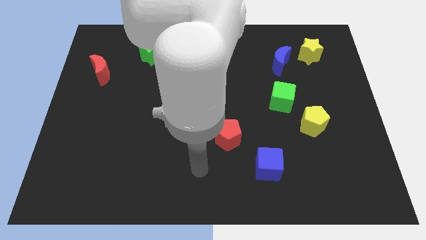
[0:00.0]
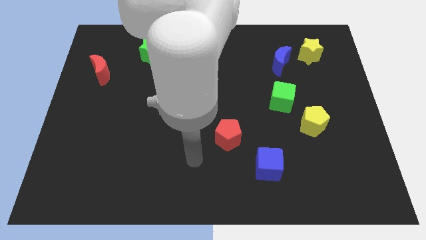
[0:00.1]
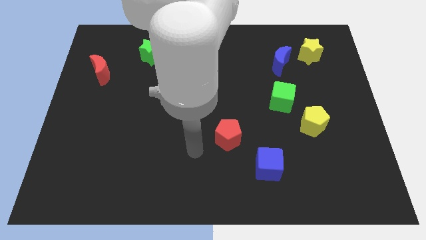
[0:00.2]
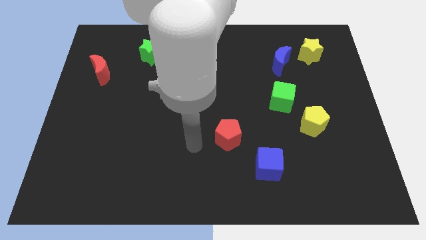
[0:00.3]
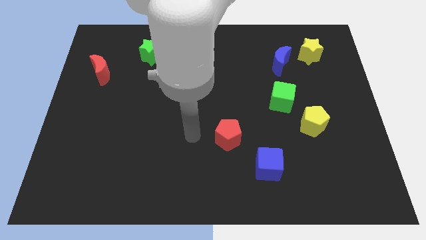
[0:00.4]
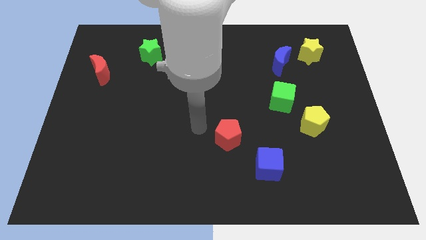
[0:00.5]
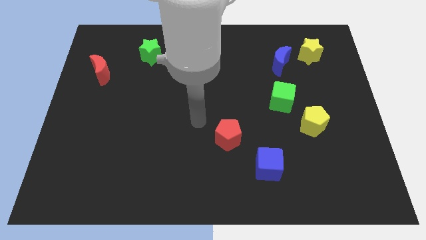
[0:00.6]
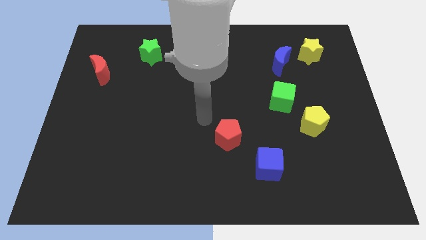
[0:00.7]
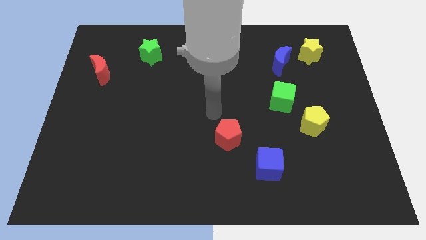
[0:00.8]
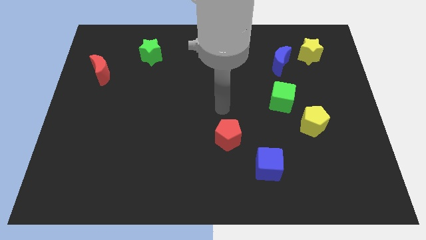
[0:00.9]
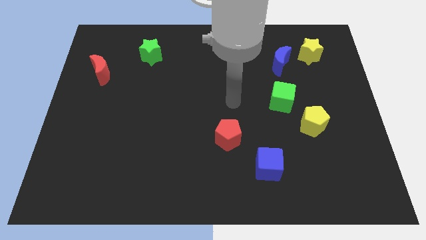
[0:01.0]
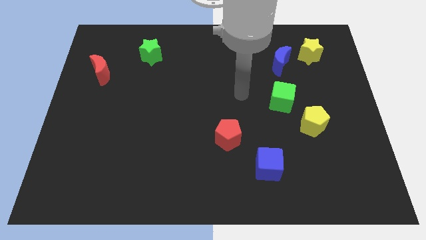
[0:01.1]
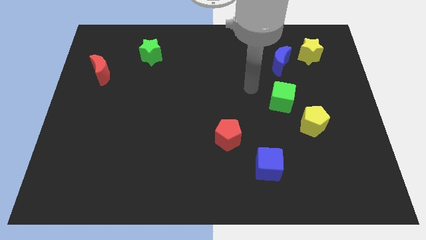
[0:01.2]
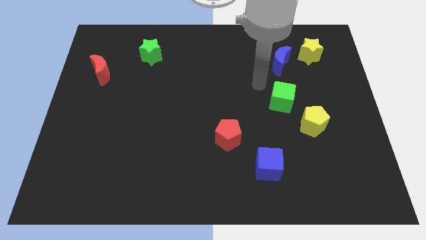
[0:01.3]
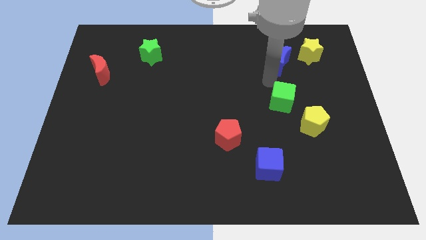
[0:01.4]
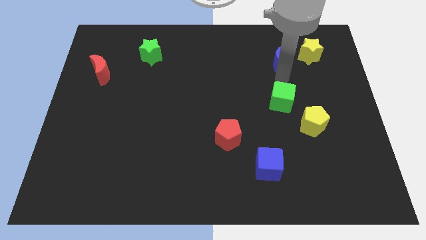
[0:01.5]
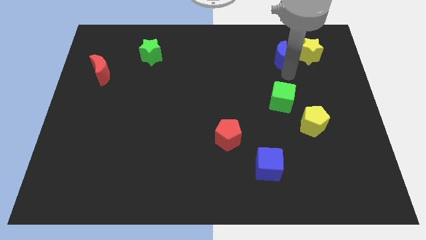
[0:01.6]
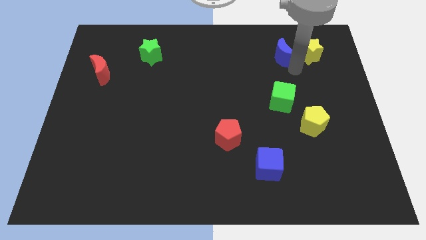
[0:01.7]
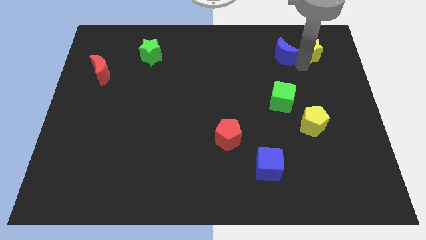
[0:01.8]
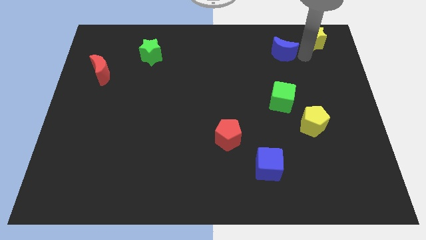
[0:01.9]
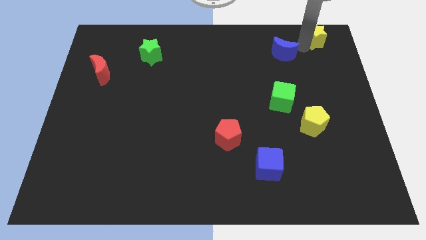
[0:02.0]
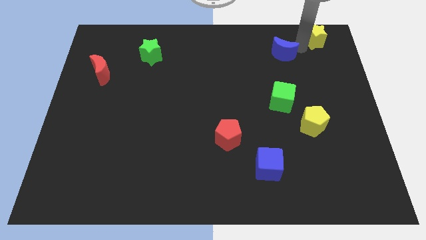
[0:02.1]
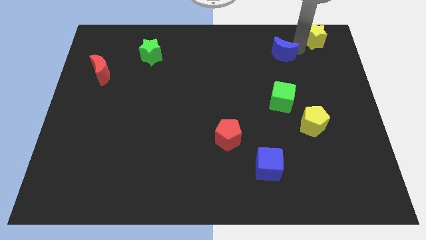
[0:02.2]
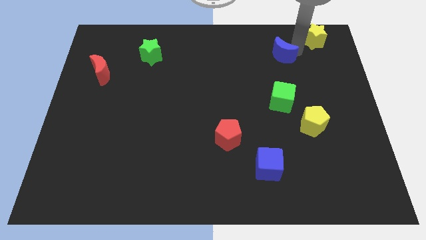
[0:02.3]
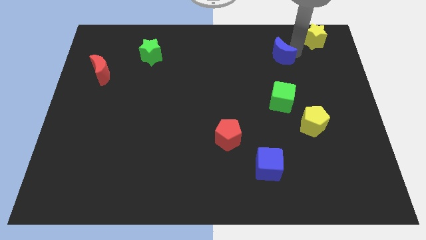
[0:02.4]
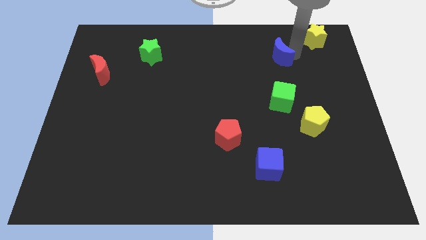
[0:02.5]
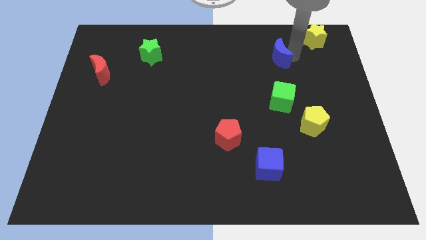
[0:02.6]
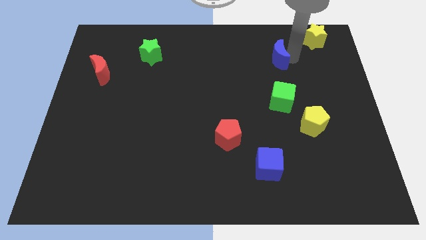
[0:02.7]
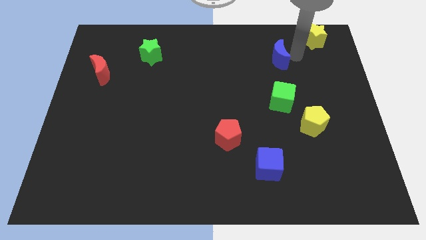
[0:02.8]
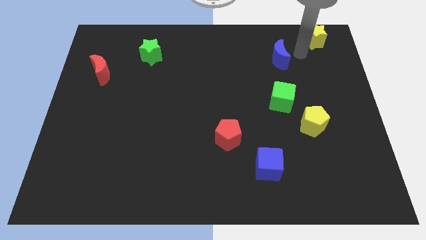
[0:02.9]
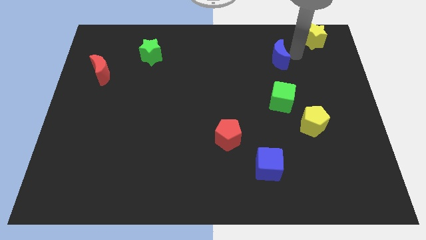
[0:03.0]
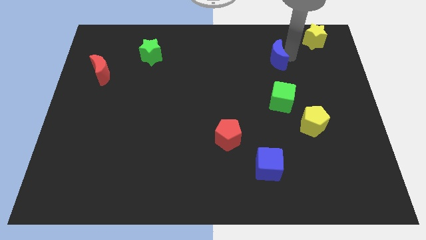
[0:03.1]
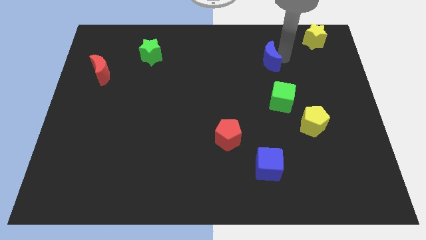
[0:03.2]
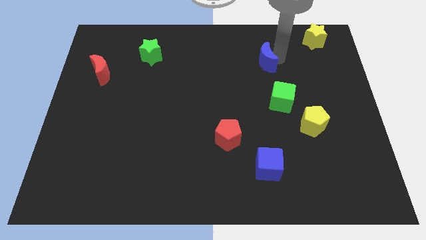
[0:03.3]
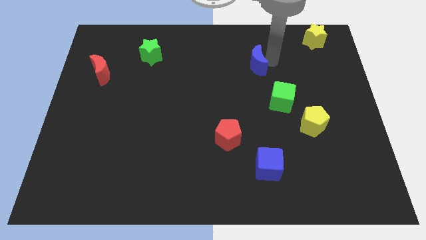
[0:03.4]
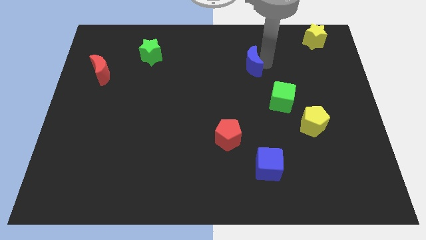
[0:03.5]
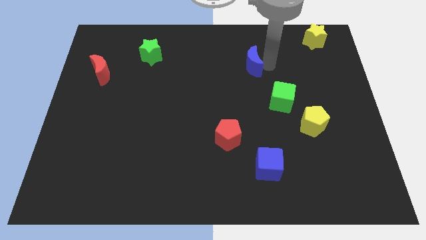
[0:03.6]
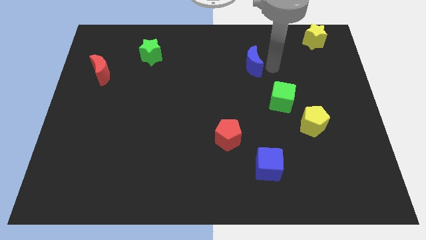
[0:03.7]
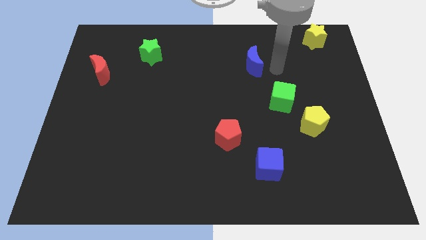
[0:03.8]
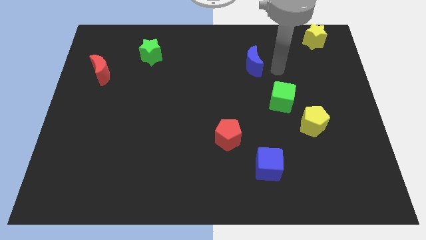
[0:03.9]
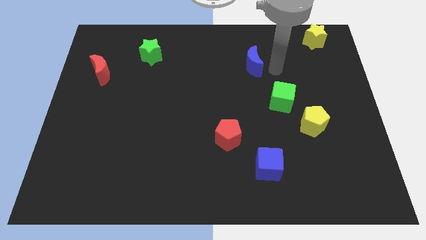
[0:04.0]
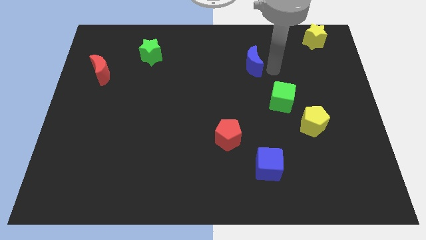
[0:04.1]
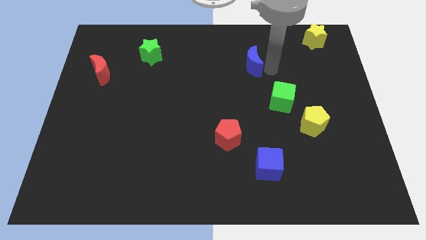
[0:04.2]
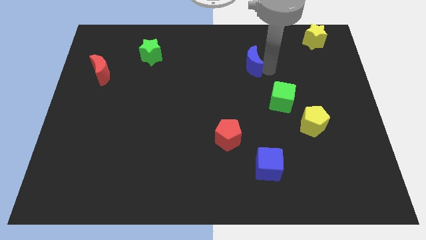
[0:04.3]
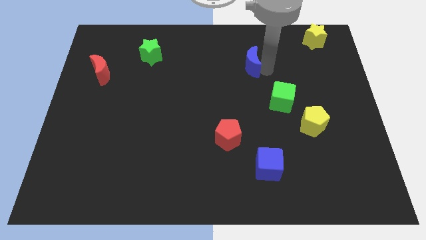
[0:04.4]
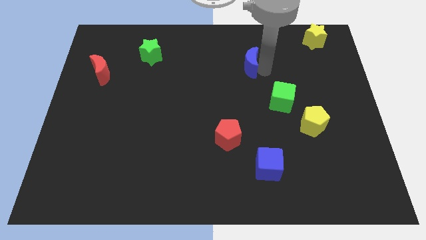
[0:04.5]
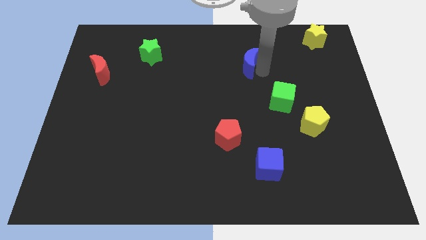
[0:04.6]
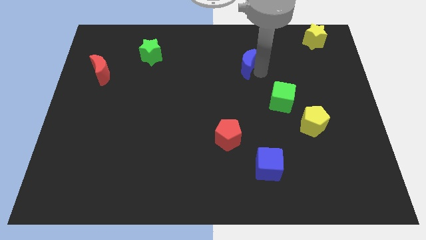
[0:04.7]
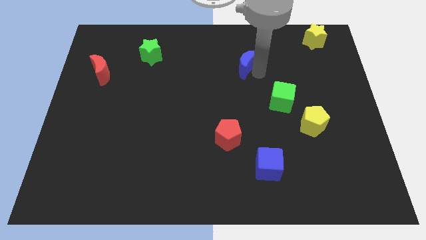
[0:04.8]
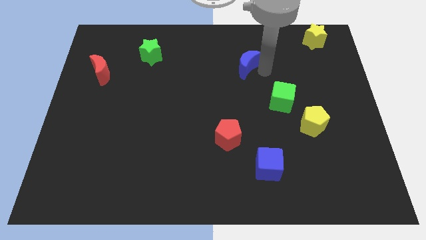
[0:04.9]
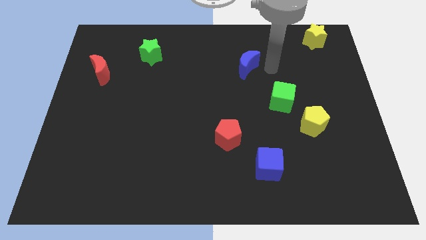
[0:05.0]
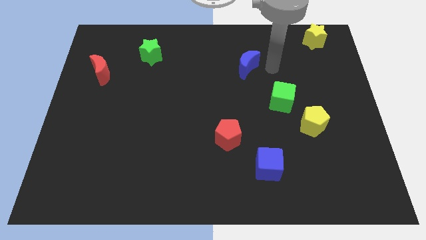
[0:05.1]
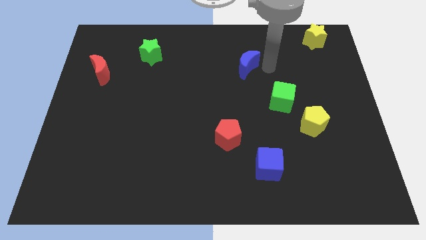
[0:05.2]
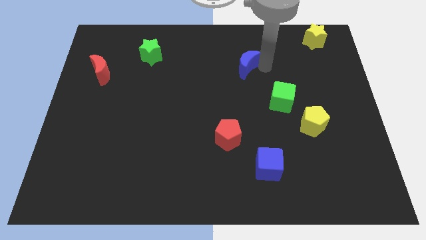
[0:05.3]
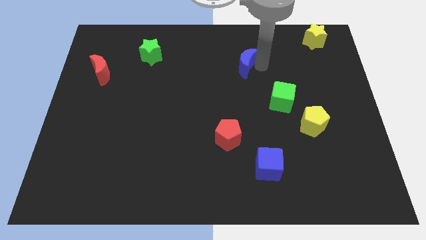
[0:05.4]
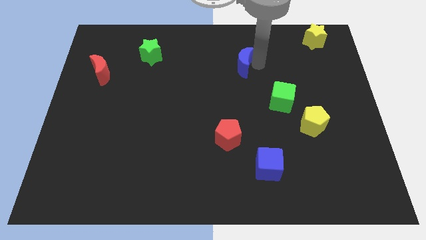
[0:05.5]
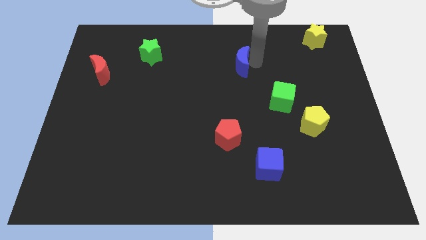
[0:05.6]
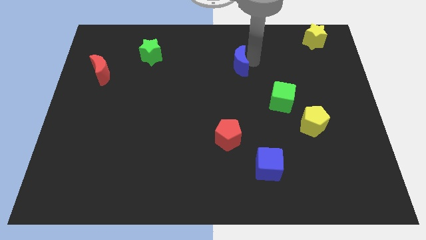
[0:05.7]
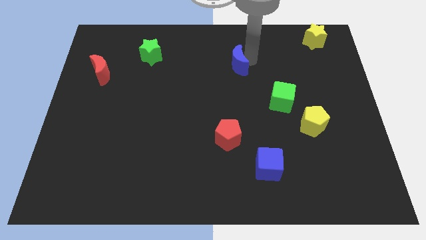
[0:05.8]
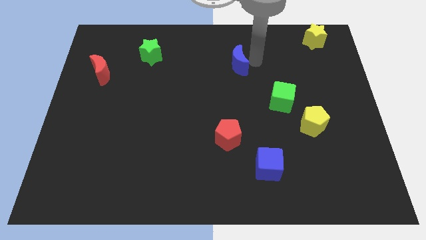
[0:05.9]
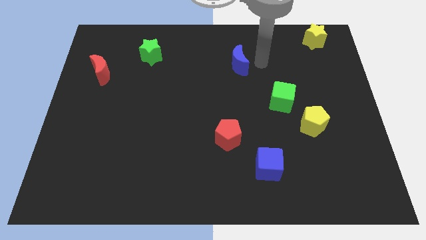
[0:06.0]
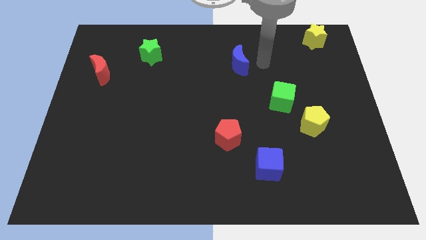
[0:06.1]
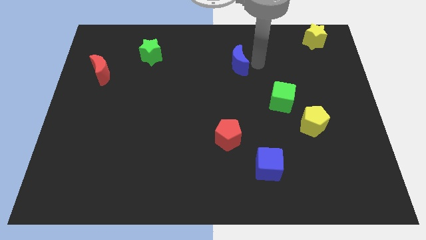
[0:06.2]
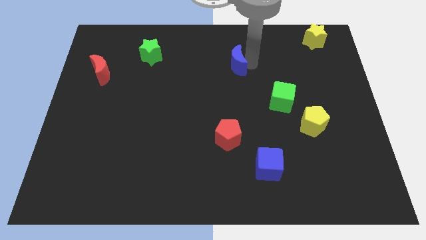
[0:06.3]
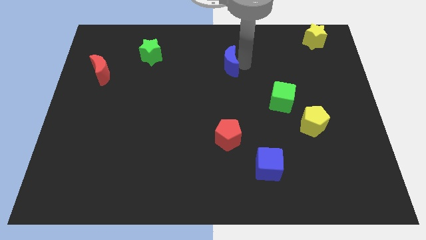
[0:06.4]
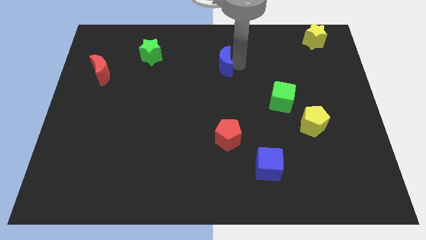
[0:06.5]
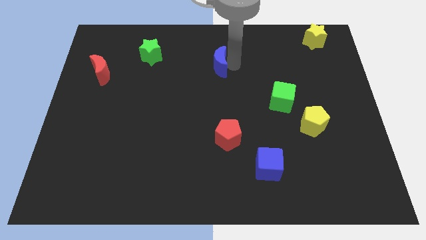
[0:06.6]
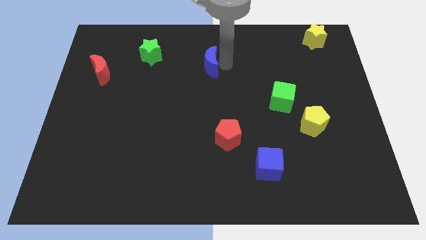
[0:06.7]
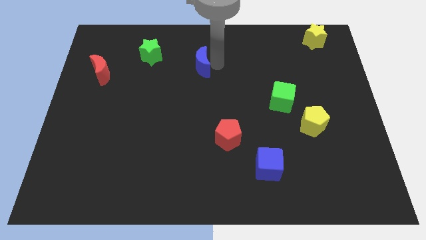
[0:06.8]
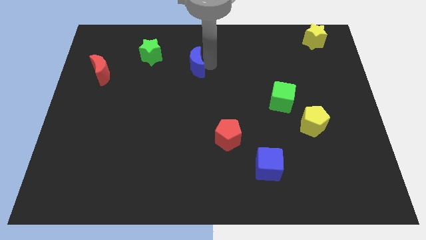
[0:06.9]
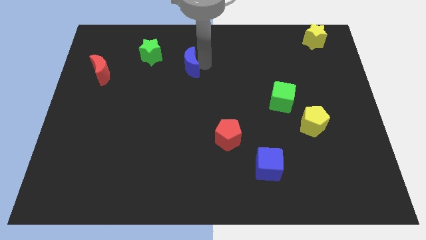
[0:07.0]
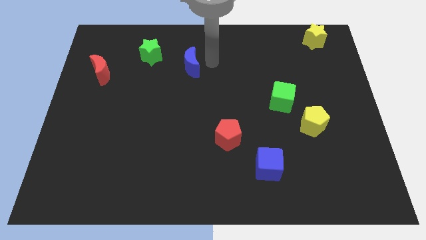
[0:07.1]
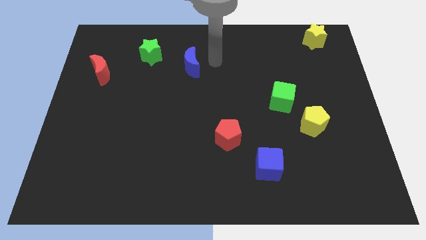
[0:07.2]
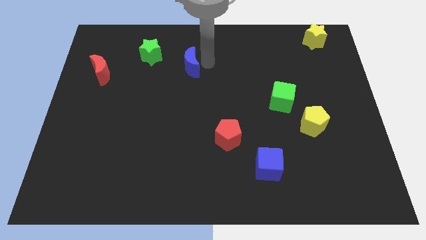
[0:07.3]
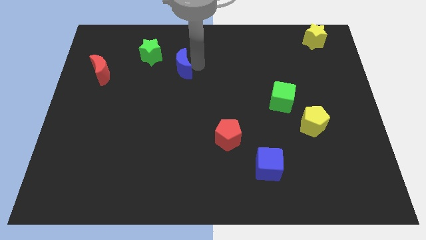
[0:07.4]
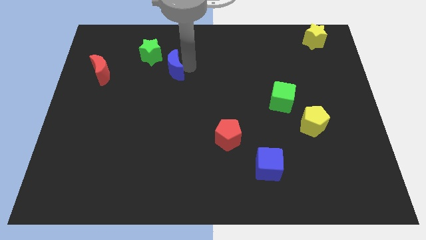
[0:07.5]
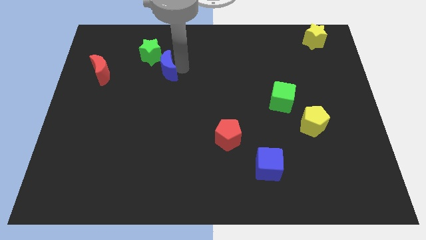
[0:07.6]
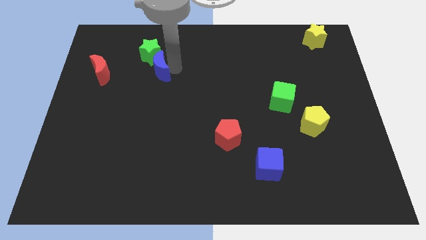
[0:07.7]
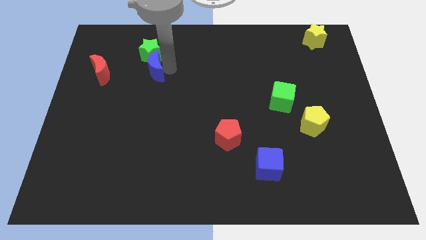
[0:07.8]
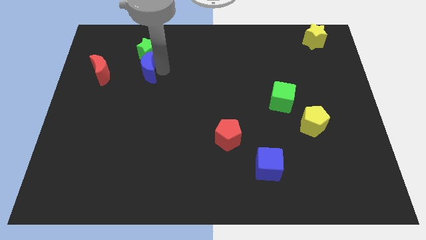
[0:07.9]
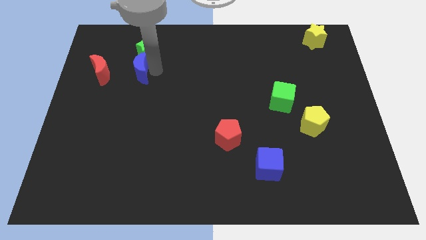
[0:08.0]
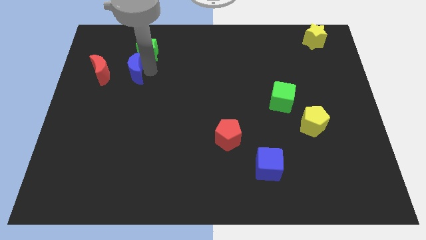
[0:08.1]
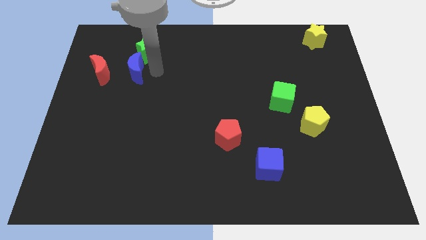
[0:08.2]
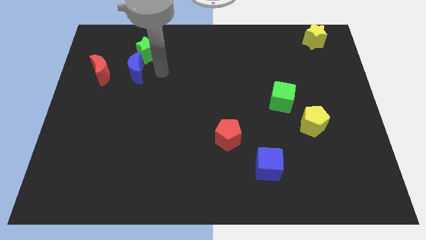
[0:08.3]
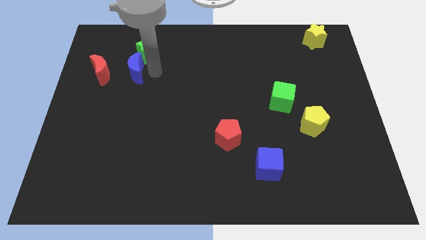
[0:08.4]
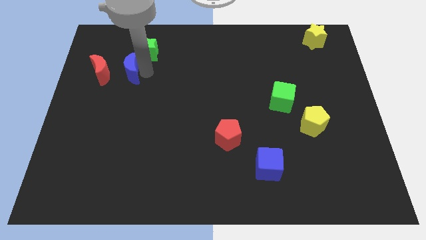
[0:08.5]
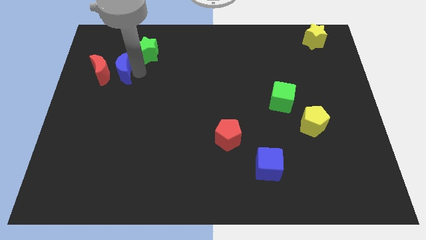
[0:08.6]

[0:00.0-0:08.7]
move the blue moon towards the red moon
